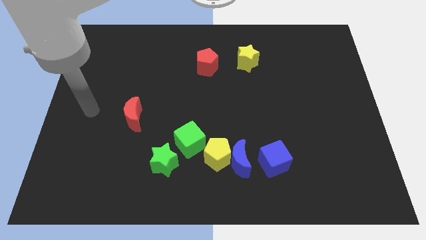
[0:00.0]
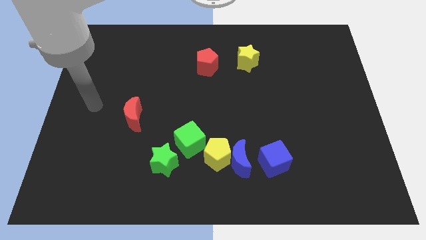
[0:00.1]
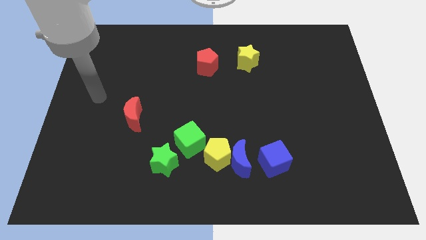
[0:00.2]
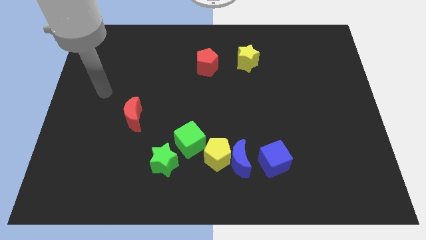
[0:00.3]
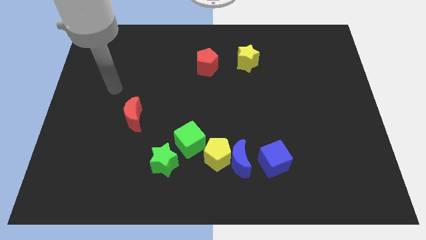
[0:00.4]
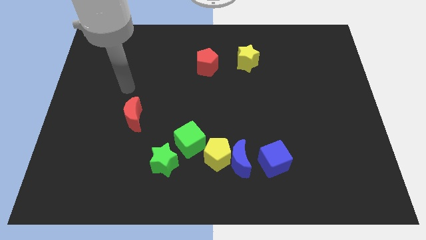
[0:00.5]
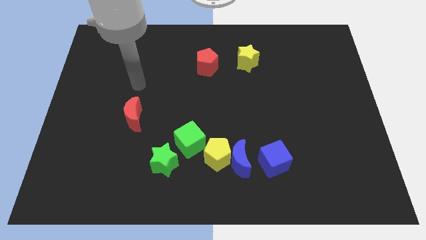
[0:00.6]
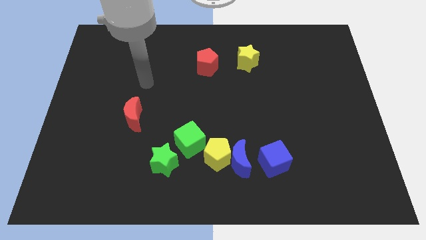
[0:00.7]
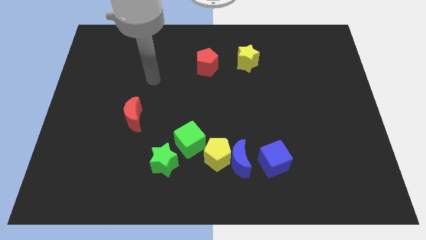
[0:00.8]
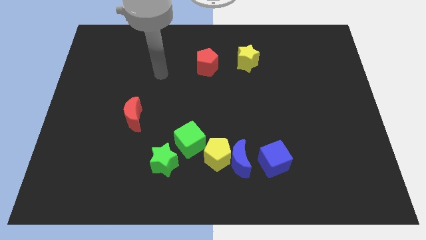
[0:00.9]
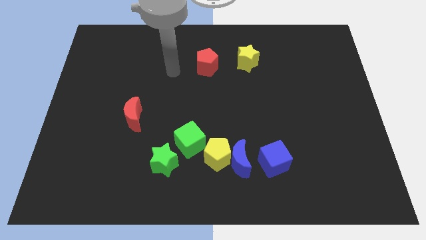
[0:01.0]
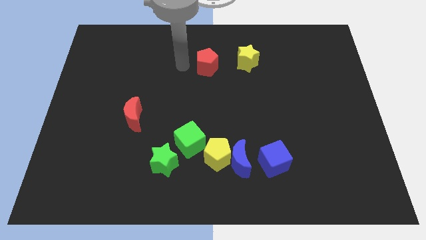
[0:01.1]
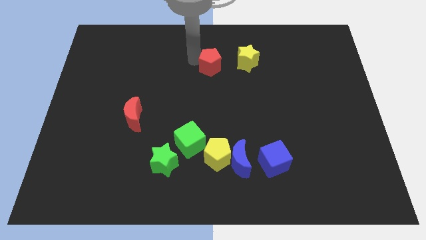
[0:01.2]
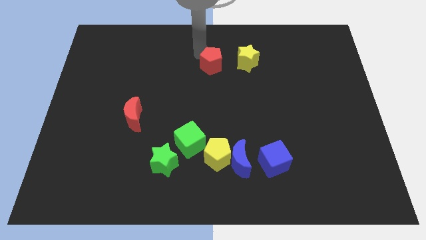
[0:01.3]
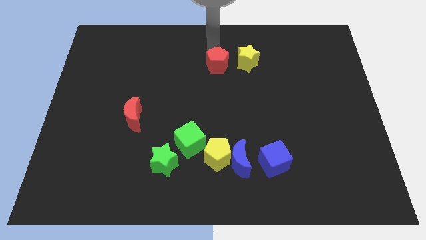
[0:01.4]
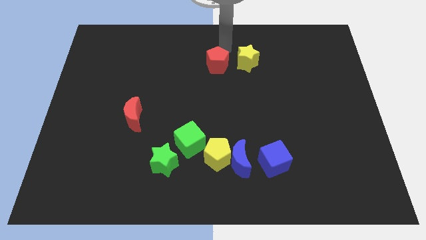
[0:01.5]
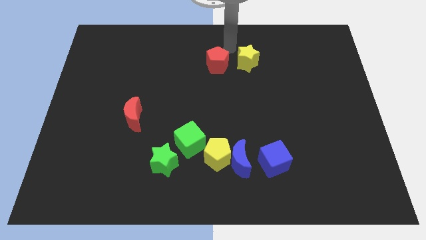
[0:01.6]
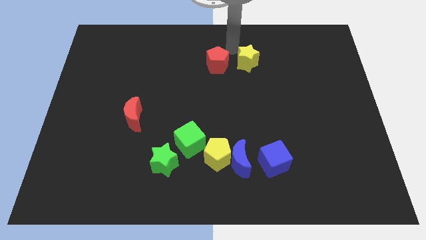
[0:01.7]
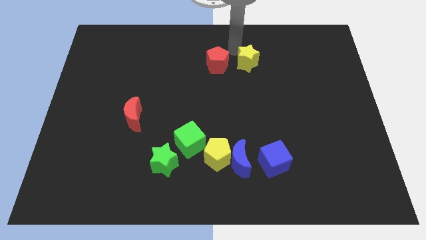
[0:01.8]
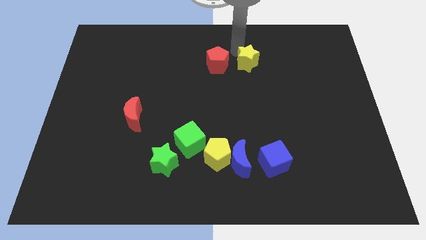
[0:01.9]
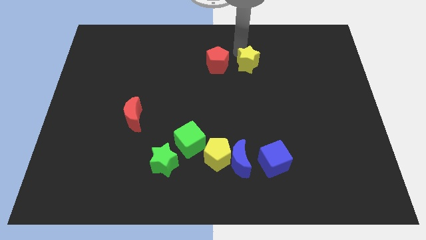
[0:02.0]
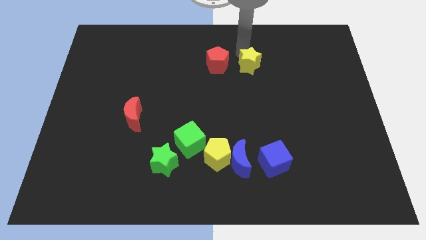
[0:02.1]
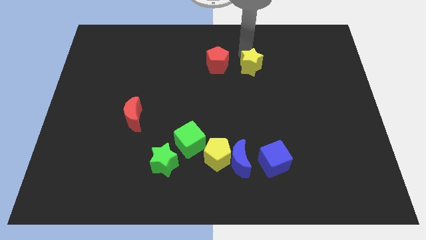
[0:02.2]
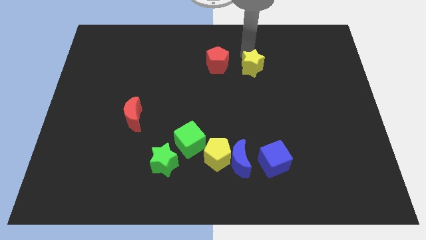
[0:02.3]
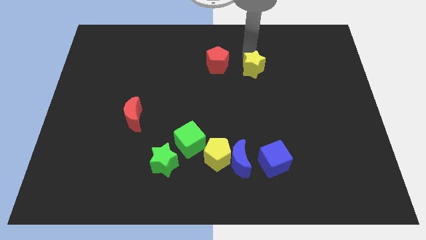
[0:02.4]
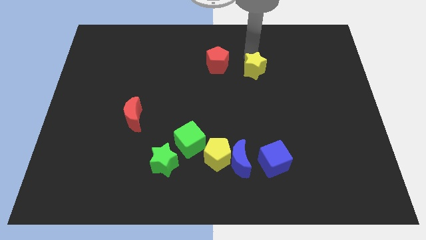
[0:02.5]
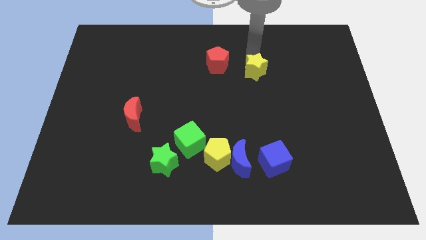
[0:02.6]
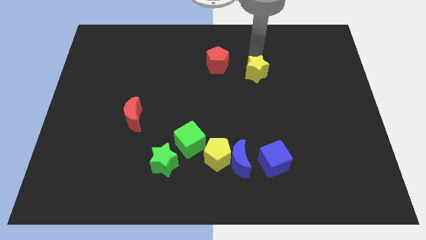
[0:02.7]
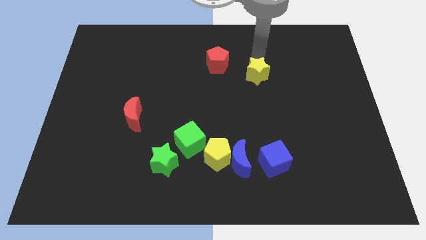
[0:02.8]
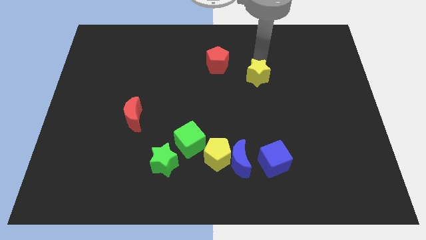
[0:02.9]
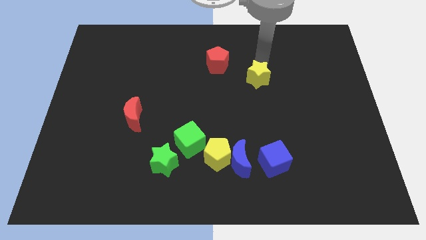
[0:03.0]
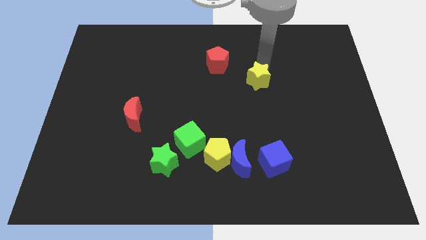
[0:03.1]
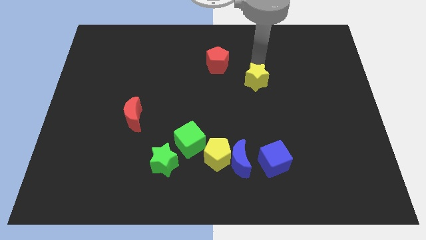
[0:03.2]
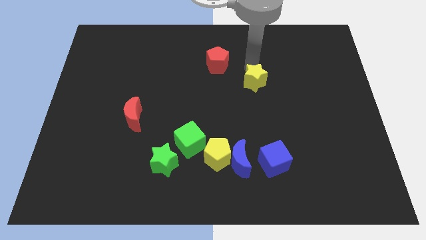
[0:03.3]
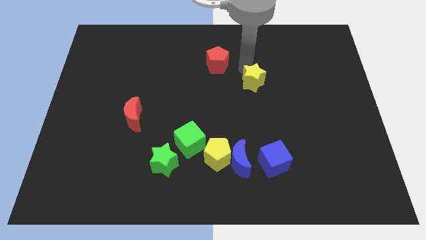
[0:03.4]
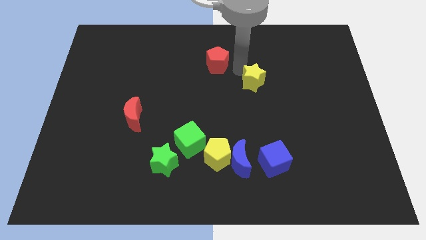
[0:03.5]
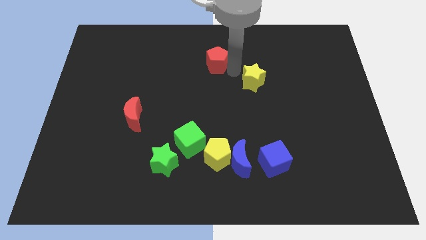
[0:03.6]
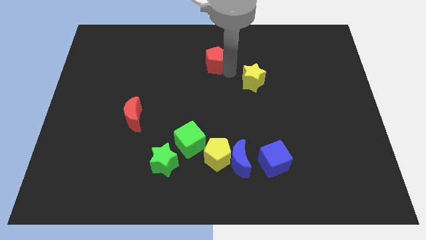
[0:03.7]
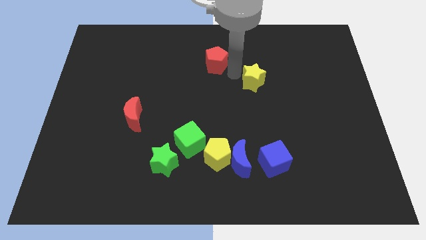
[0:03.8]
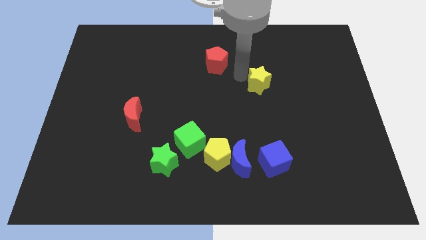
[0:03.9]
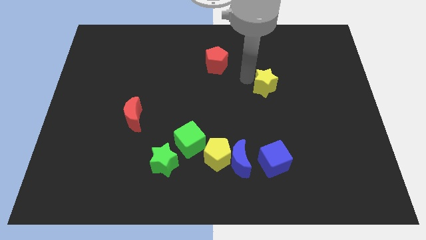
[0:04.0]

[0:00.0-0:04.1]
slide the yellow star down and to the right slightly

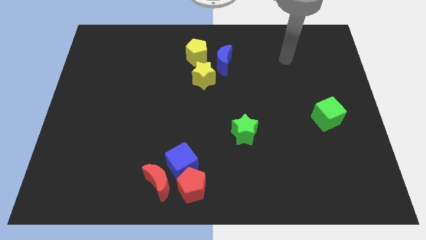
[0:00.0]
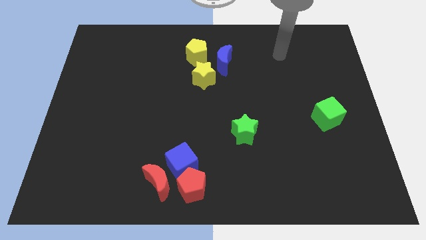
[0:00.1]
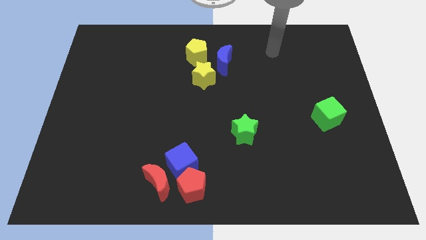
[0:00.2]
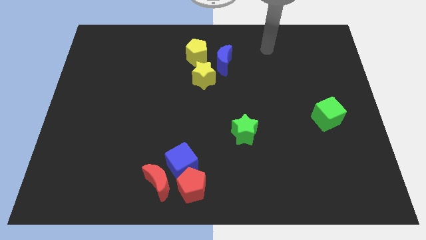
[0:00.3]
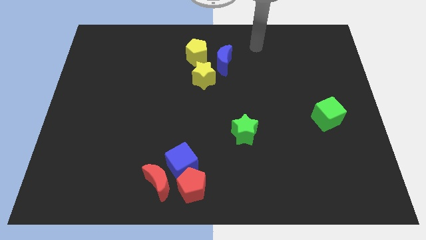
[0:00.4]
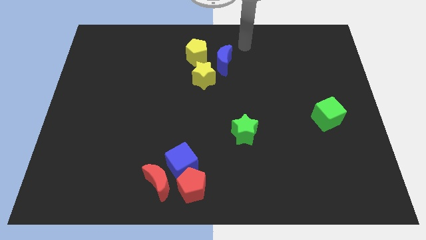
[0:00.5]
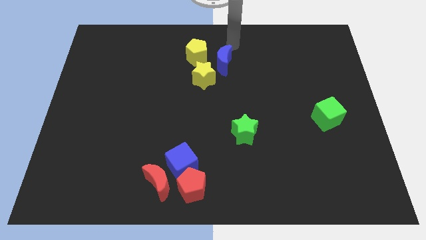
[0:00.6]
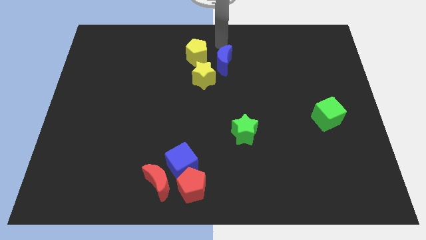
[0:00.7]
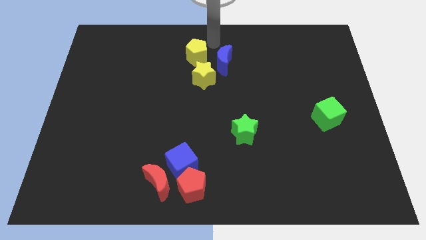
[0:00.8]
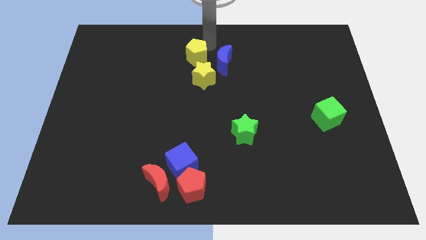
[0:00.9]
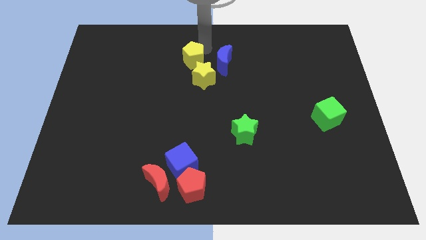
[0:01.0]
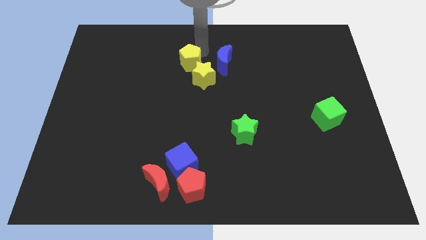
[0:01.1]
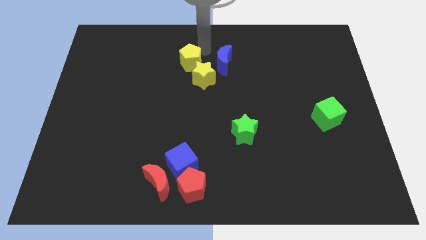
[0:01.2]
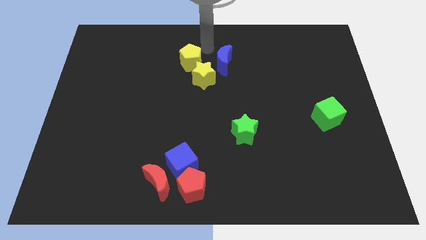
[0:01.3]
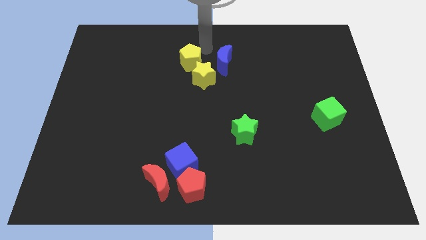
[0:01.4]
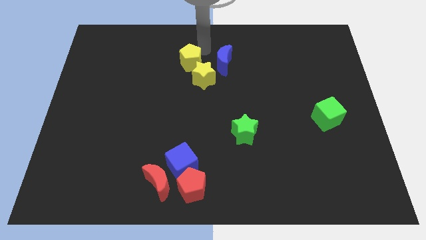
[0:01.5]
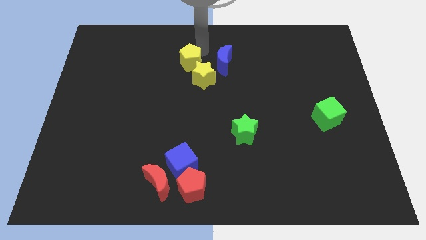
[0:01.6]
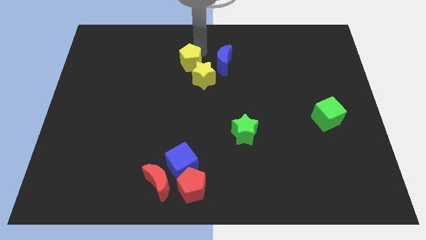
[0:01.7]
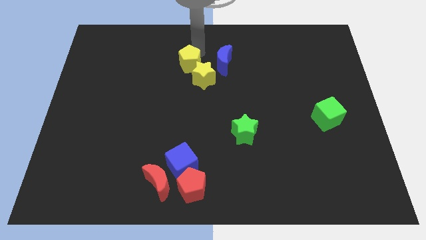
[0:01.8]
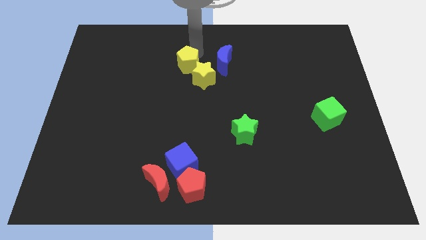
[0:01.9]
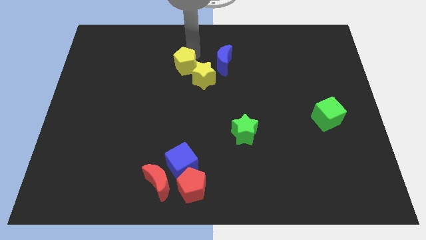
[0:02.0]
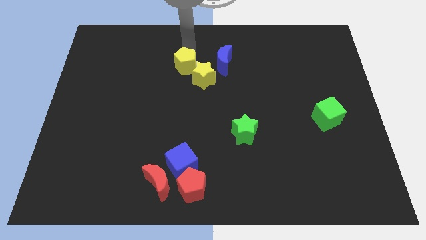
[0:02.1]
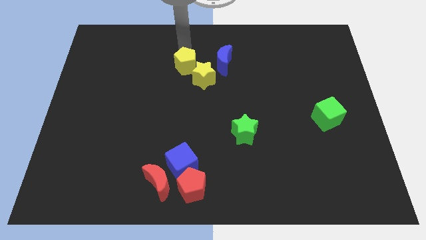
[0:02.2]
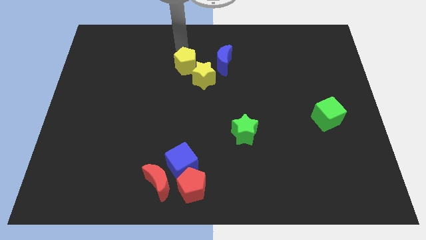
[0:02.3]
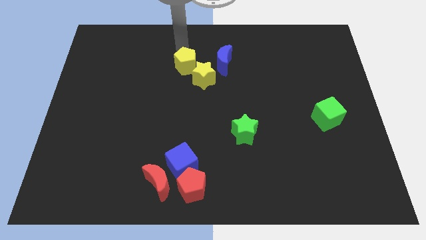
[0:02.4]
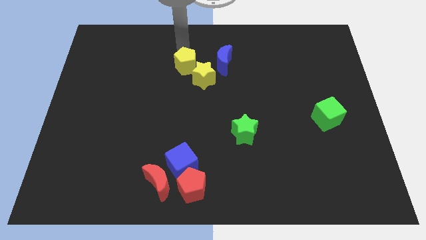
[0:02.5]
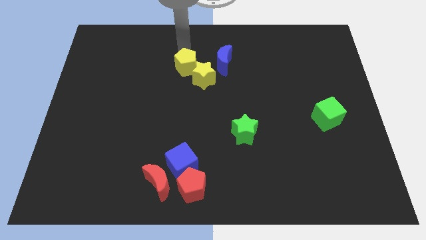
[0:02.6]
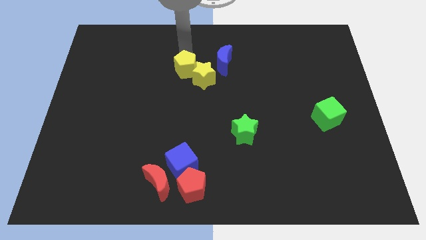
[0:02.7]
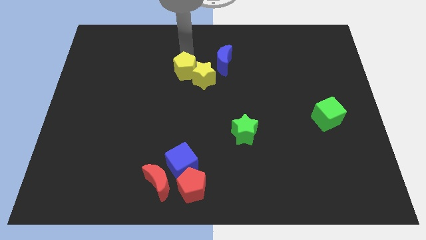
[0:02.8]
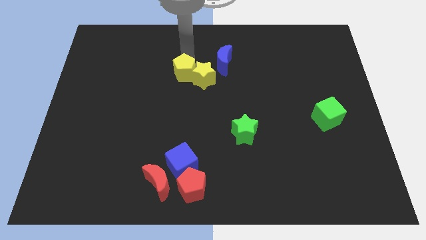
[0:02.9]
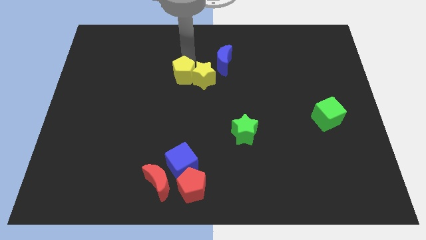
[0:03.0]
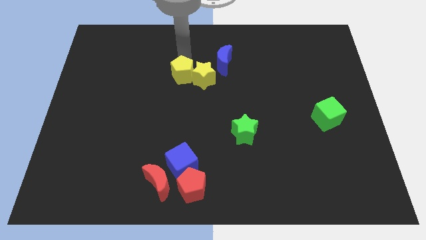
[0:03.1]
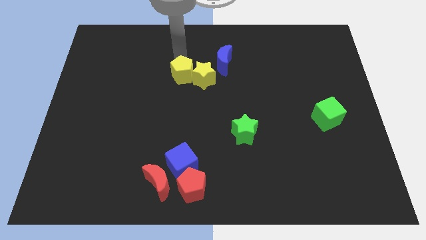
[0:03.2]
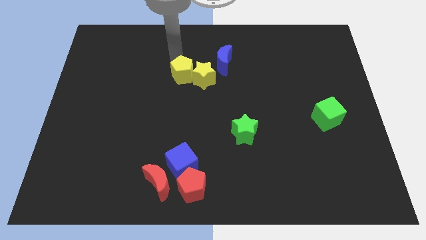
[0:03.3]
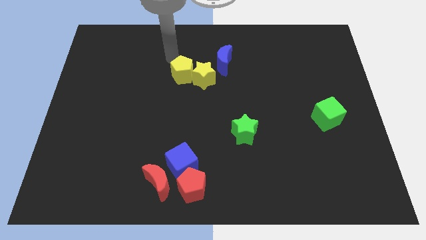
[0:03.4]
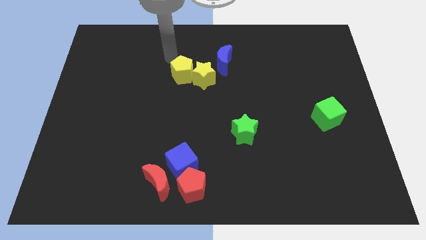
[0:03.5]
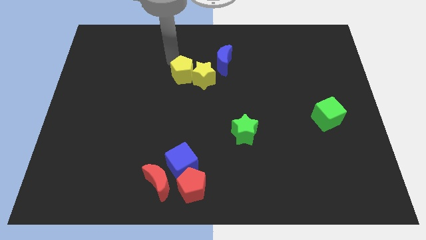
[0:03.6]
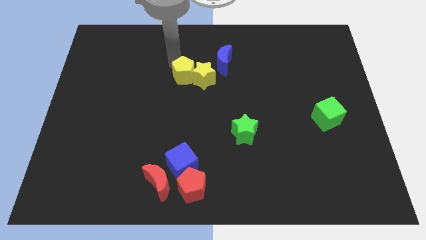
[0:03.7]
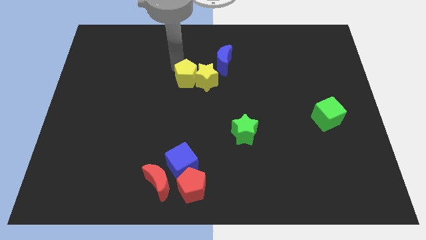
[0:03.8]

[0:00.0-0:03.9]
push the yellow pentagon somewhat downwards
